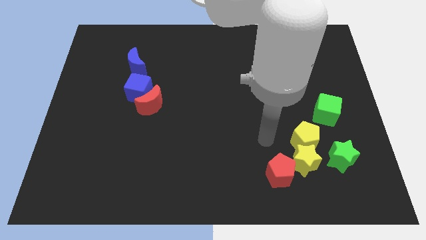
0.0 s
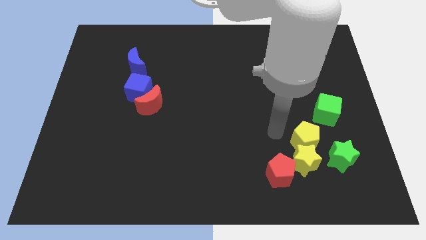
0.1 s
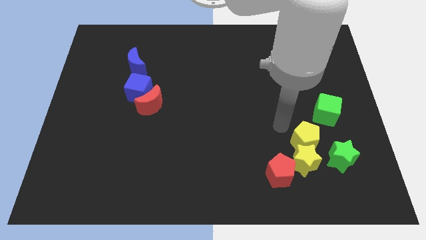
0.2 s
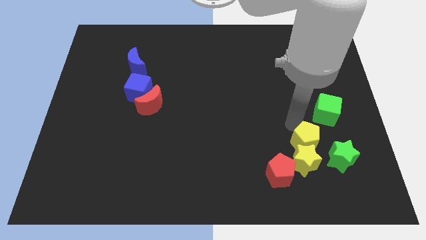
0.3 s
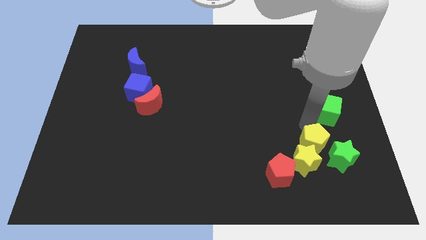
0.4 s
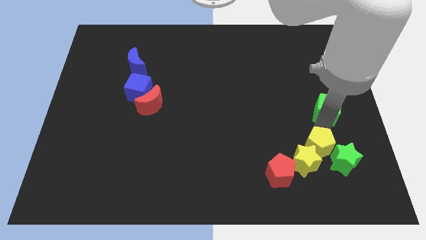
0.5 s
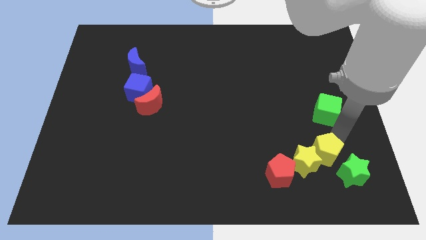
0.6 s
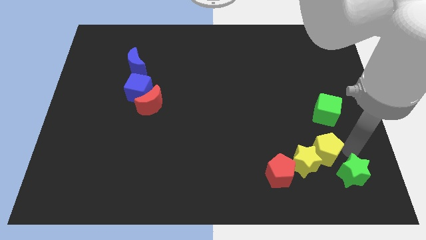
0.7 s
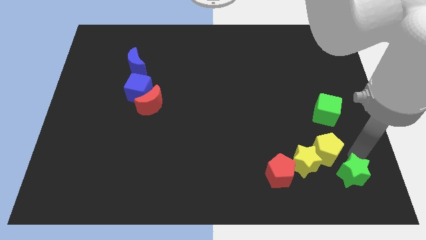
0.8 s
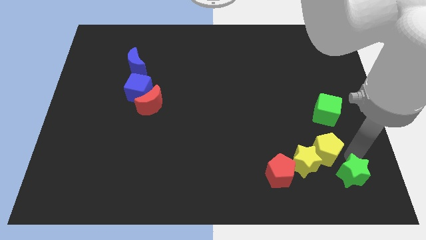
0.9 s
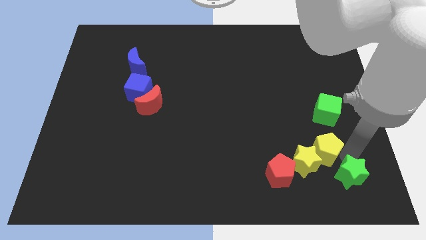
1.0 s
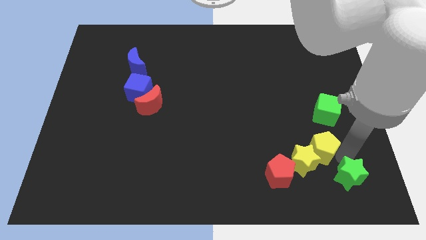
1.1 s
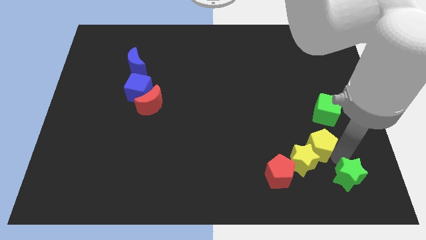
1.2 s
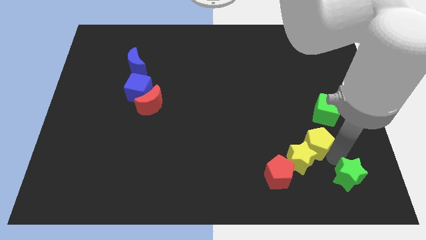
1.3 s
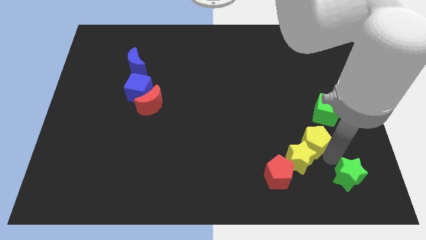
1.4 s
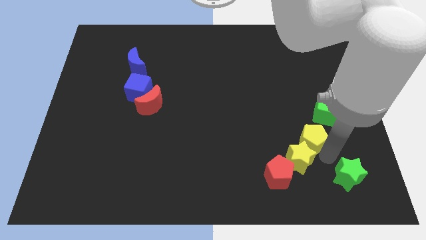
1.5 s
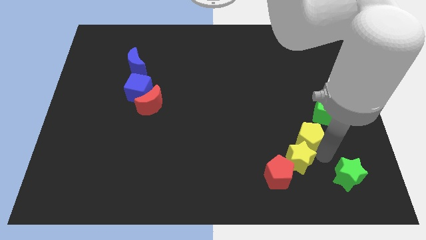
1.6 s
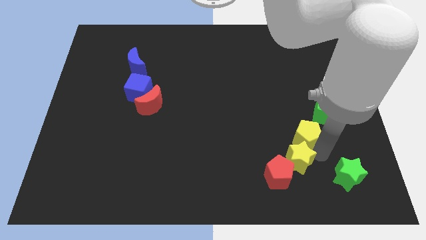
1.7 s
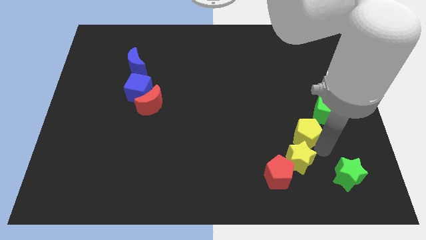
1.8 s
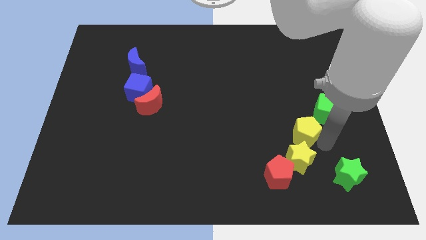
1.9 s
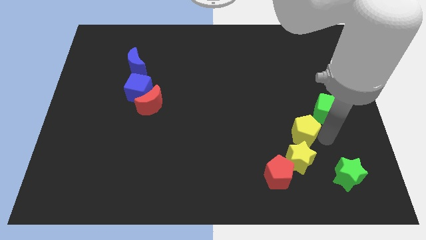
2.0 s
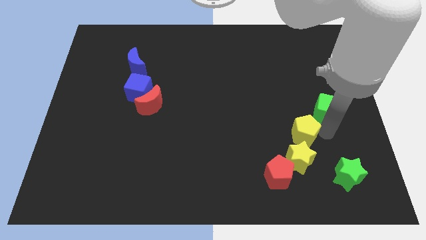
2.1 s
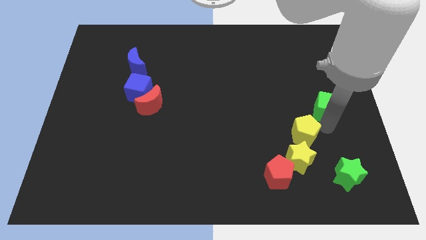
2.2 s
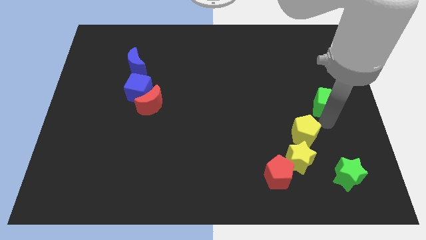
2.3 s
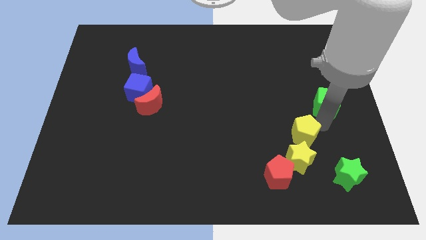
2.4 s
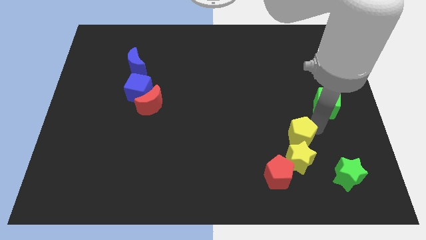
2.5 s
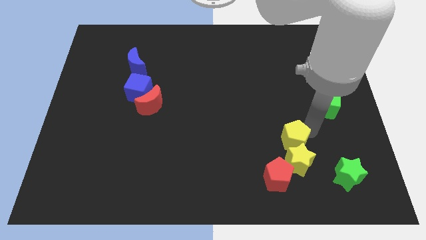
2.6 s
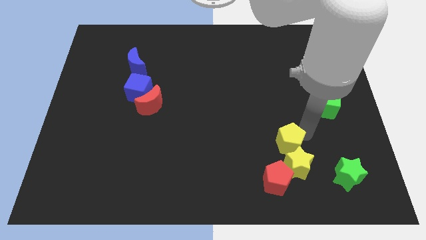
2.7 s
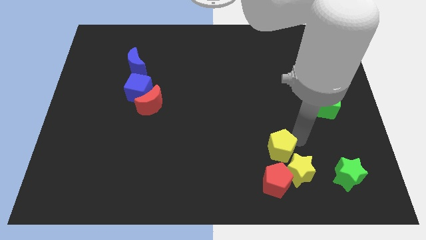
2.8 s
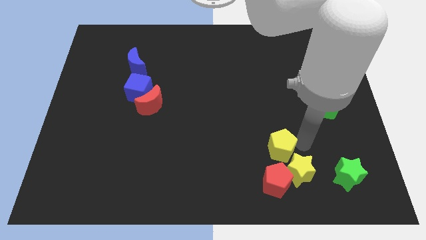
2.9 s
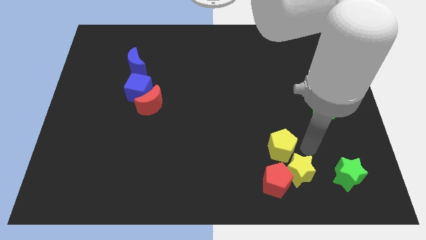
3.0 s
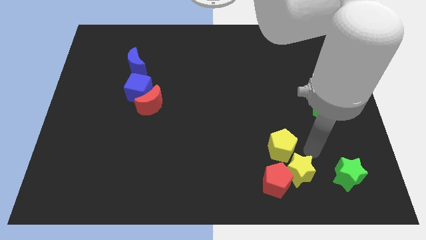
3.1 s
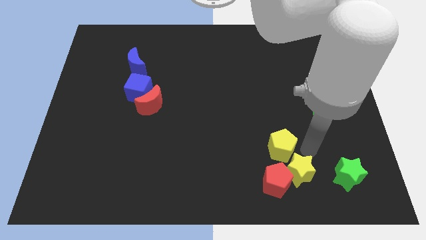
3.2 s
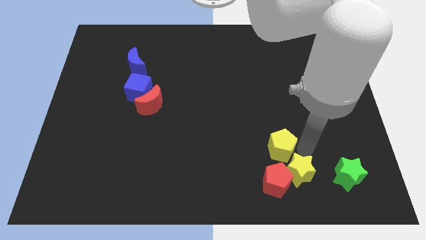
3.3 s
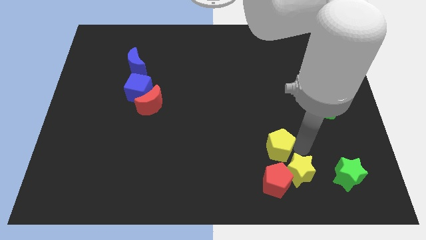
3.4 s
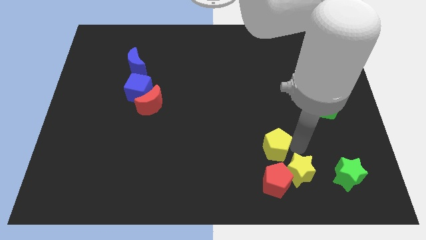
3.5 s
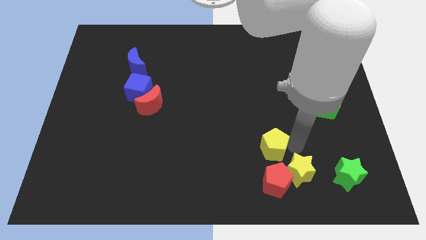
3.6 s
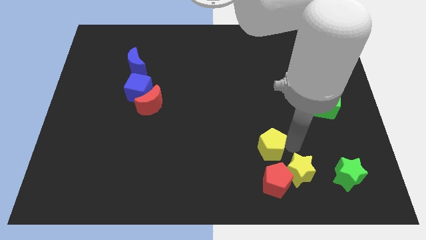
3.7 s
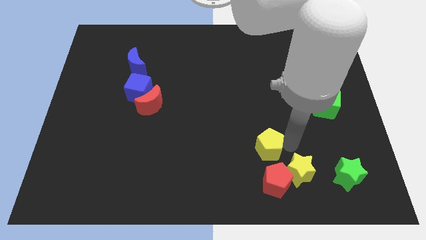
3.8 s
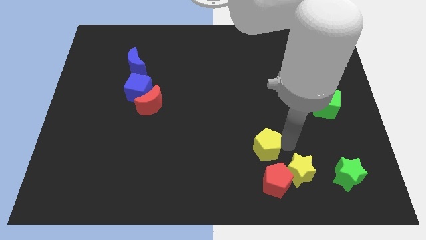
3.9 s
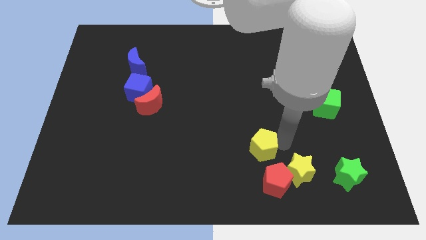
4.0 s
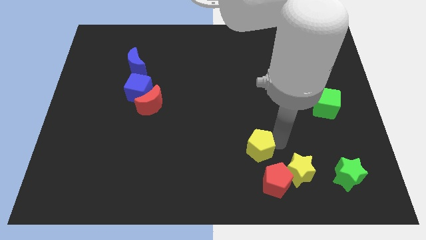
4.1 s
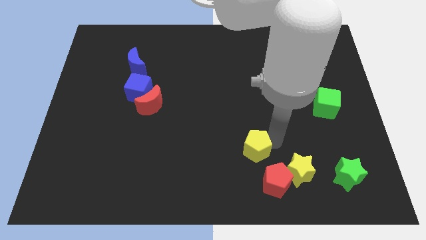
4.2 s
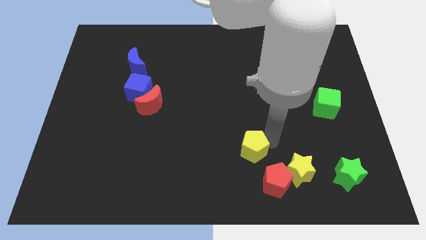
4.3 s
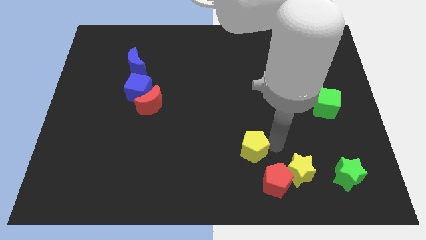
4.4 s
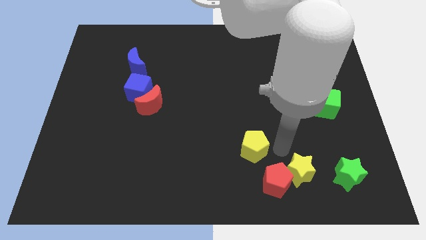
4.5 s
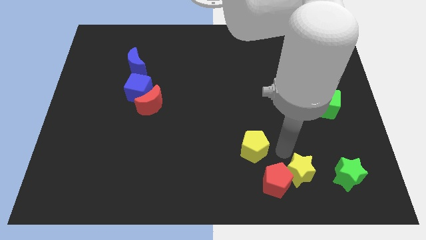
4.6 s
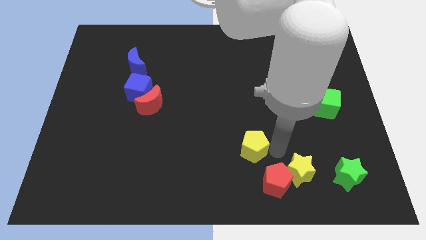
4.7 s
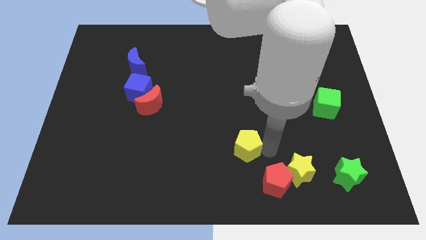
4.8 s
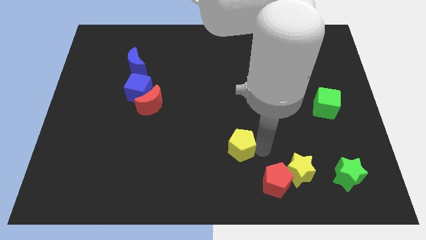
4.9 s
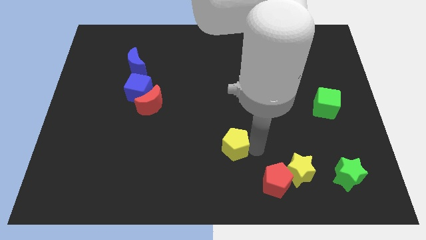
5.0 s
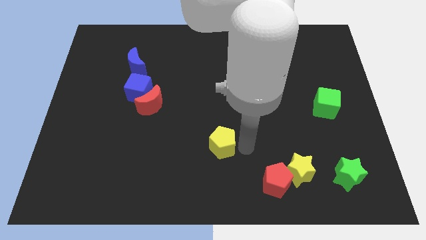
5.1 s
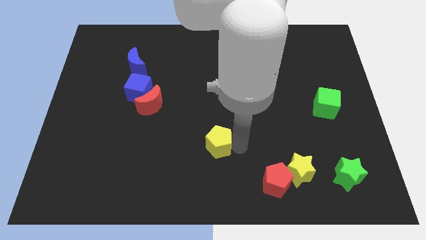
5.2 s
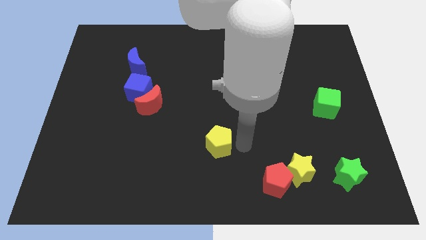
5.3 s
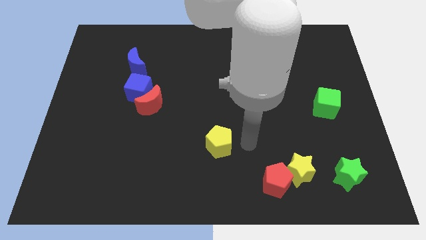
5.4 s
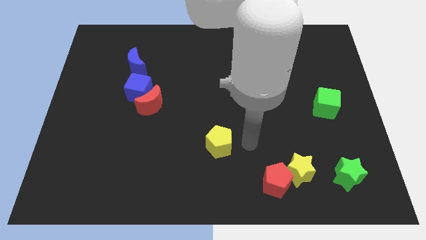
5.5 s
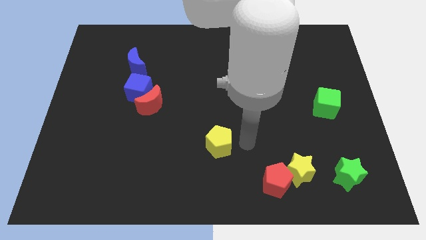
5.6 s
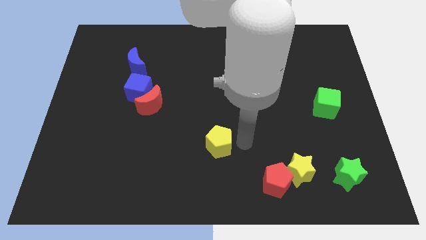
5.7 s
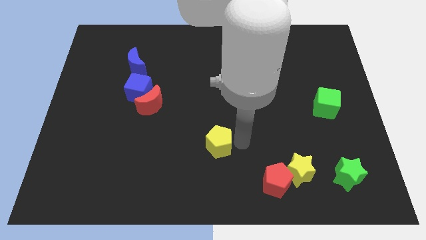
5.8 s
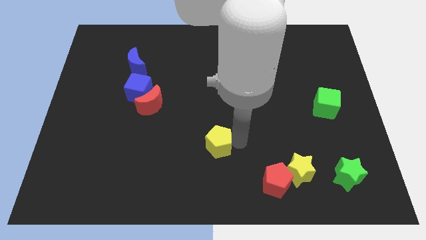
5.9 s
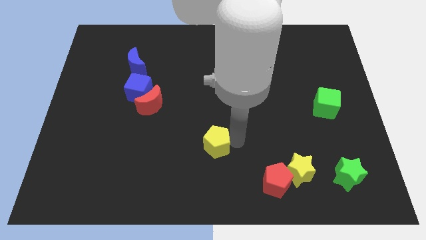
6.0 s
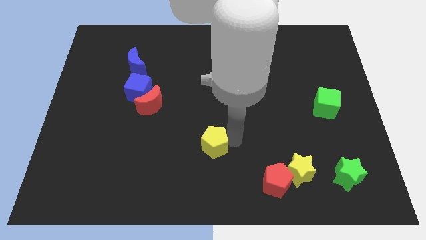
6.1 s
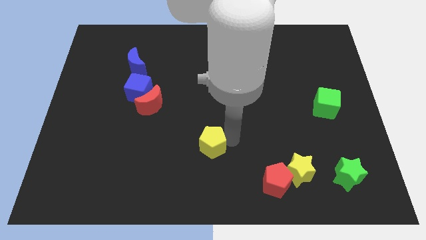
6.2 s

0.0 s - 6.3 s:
push the yellow pentagon to the left

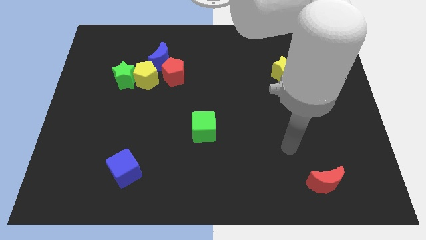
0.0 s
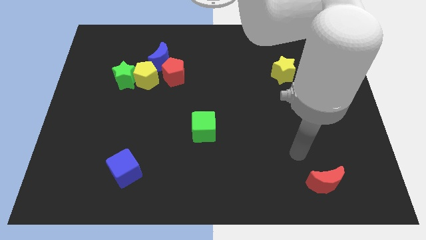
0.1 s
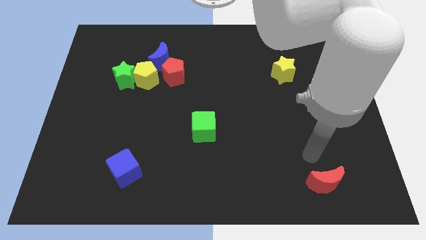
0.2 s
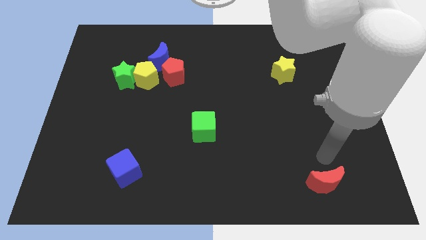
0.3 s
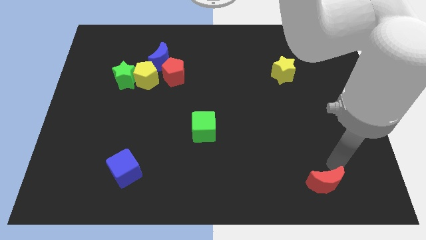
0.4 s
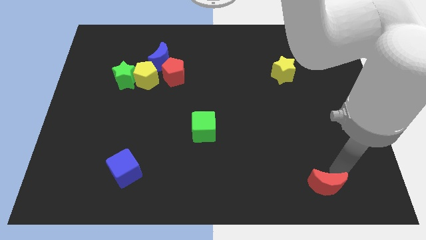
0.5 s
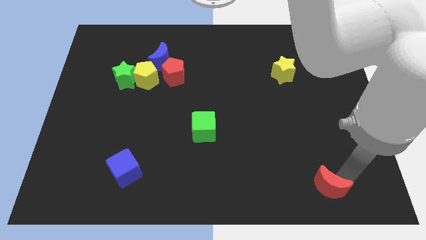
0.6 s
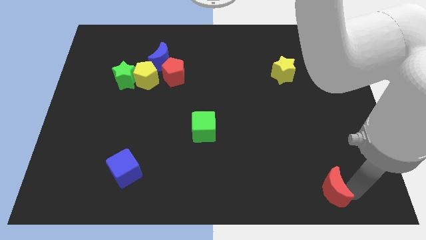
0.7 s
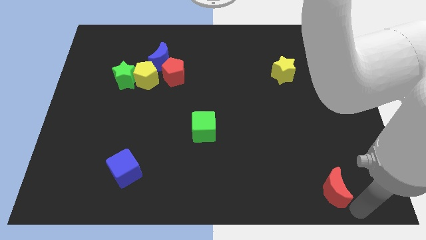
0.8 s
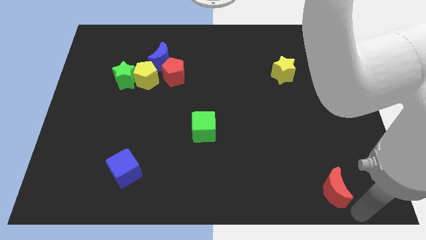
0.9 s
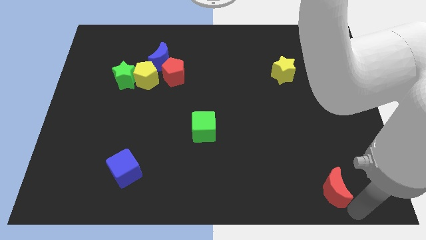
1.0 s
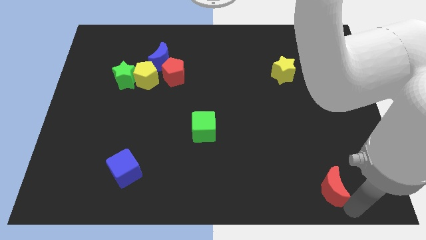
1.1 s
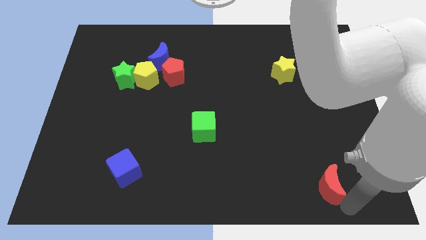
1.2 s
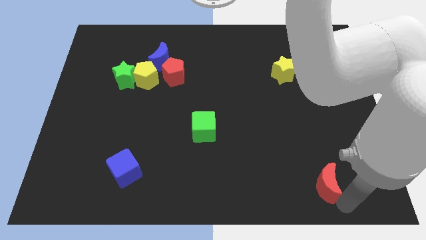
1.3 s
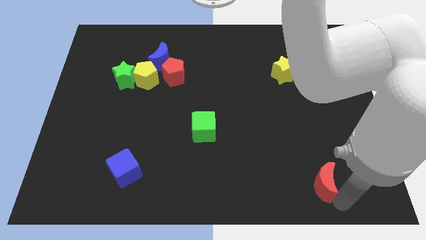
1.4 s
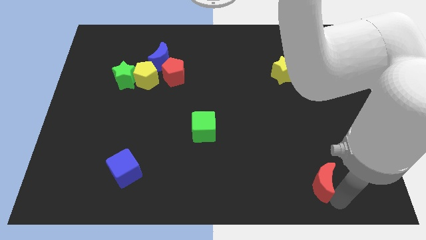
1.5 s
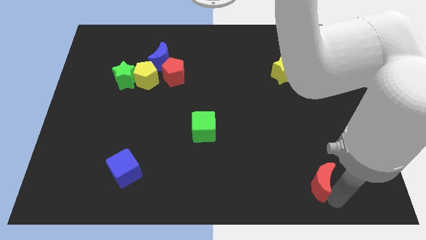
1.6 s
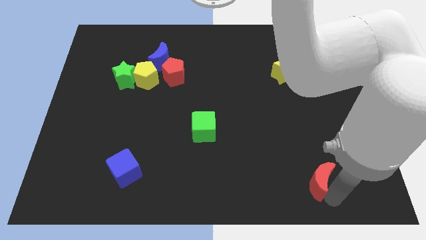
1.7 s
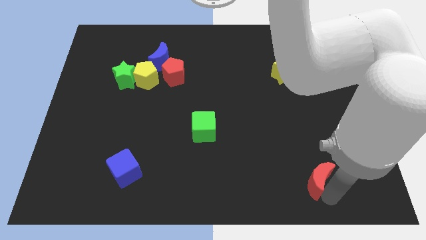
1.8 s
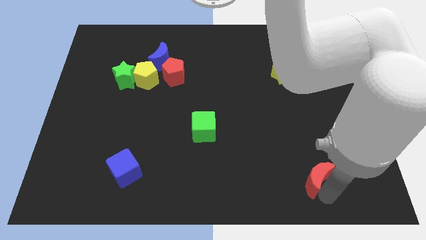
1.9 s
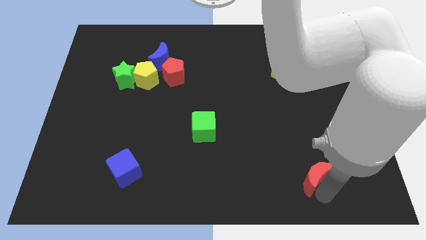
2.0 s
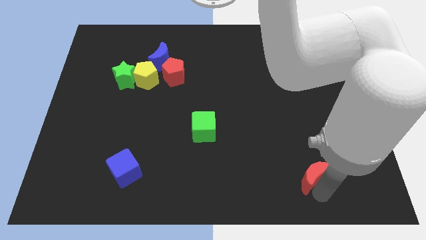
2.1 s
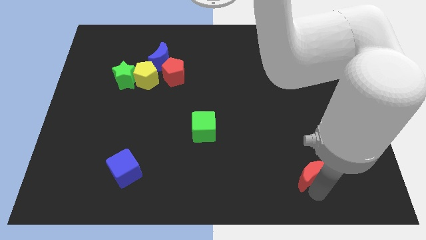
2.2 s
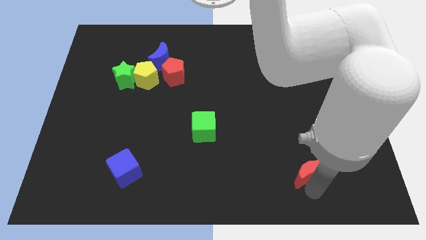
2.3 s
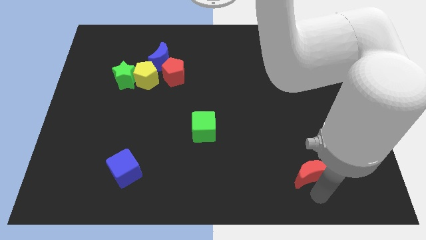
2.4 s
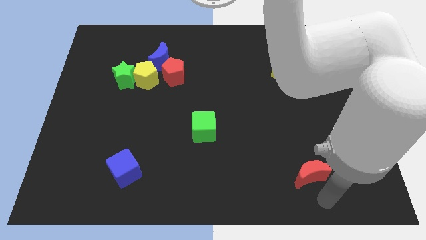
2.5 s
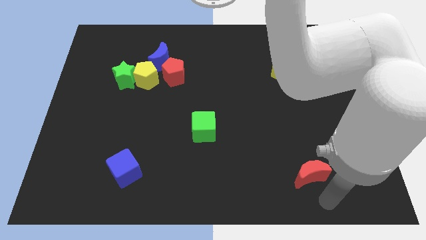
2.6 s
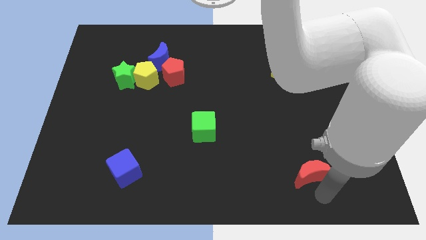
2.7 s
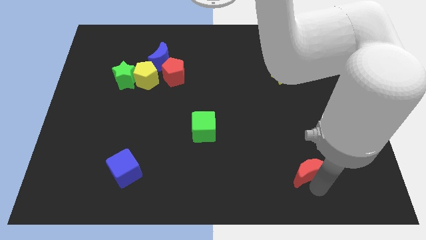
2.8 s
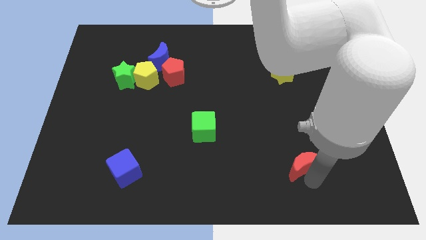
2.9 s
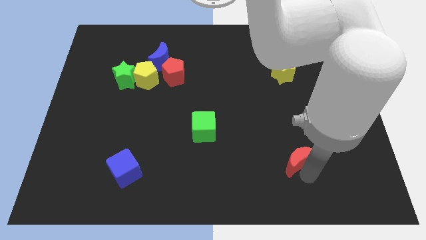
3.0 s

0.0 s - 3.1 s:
slide the red moon upwards and left slightly
